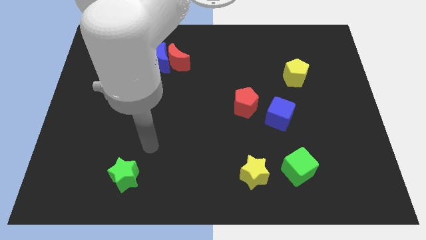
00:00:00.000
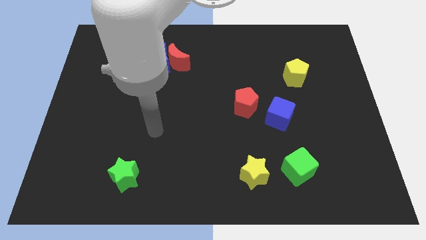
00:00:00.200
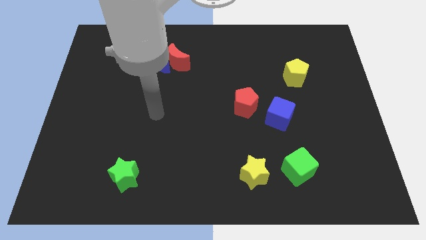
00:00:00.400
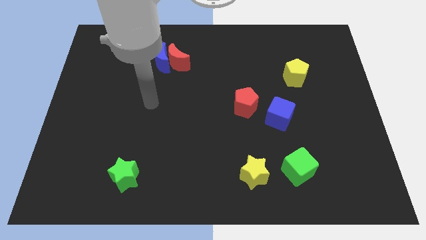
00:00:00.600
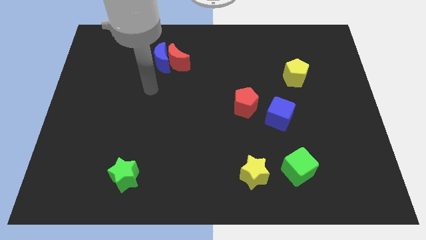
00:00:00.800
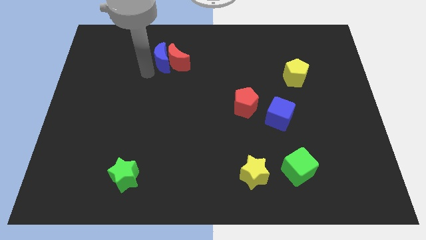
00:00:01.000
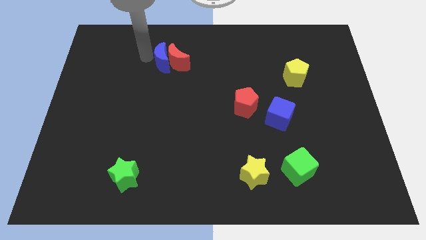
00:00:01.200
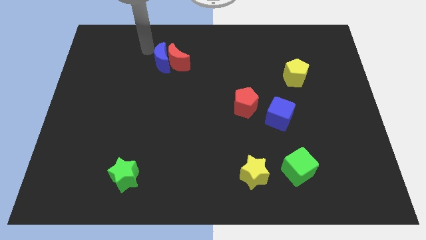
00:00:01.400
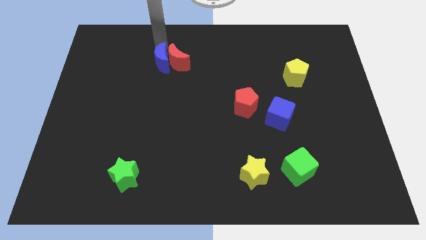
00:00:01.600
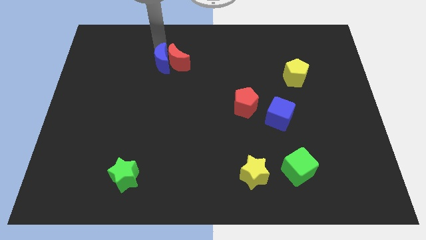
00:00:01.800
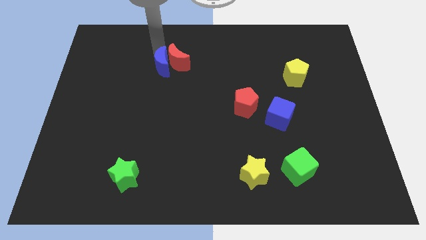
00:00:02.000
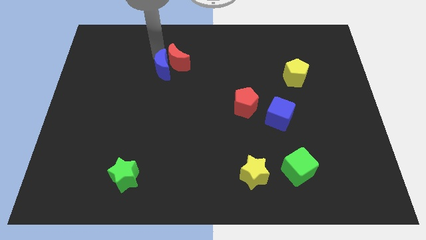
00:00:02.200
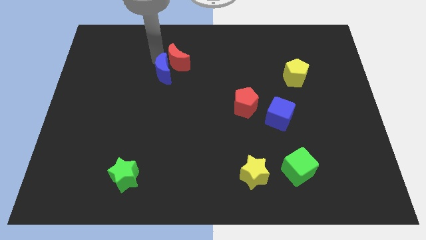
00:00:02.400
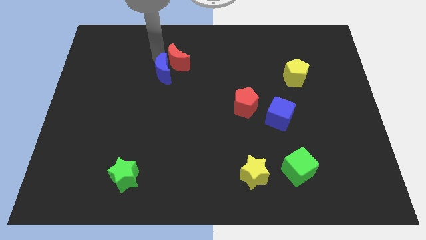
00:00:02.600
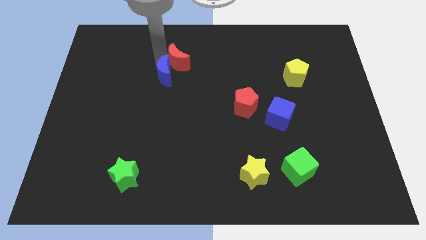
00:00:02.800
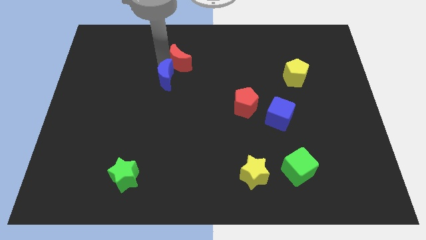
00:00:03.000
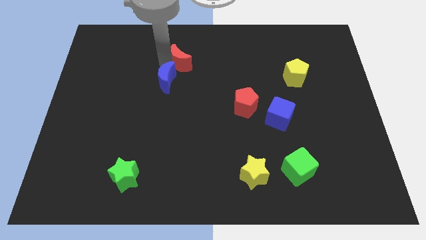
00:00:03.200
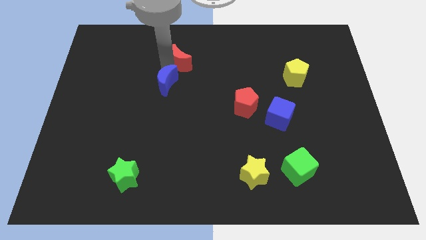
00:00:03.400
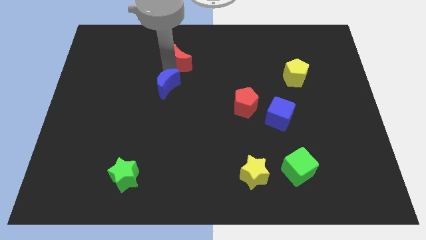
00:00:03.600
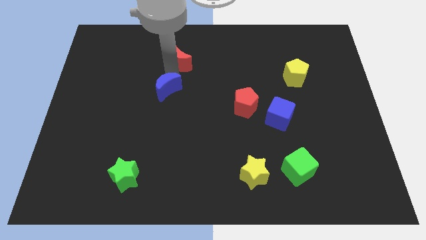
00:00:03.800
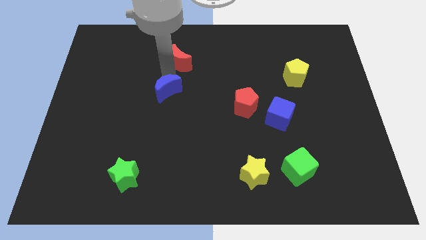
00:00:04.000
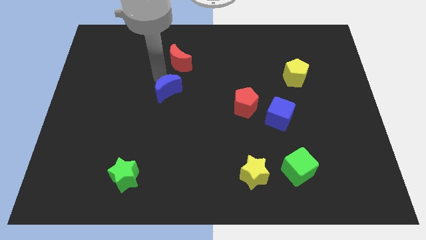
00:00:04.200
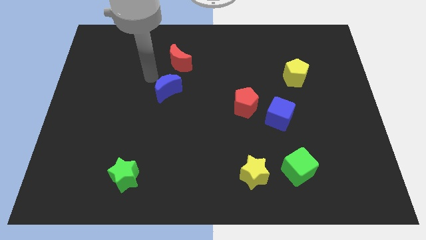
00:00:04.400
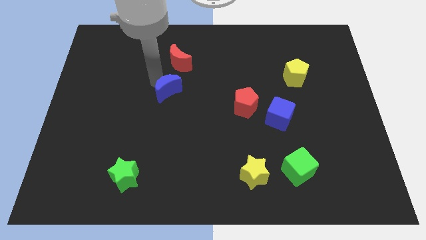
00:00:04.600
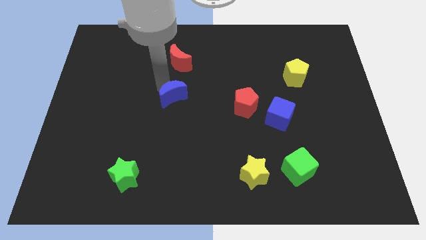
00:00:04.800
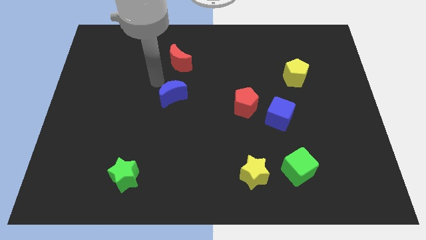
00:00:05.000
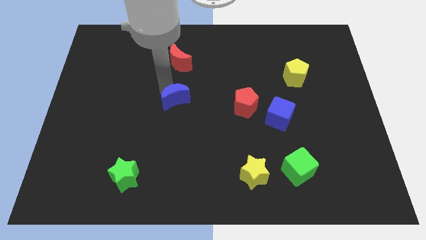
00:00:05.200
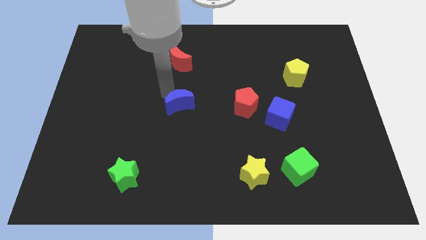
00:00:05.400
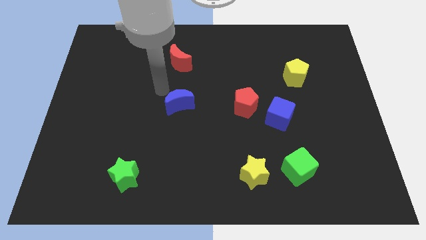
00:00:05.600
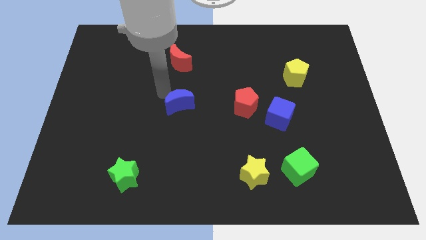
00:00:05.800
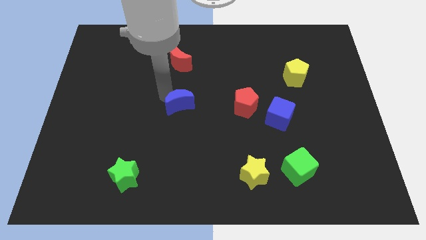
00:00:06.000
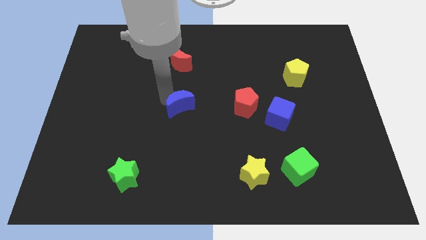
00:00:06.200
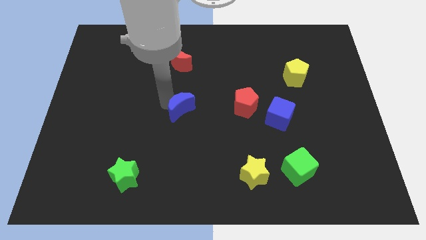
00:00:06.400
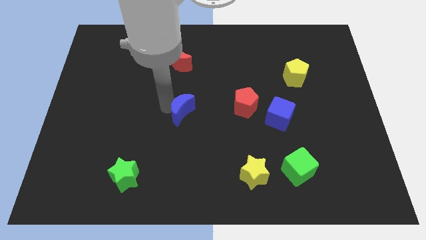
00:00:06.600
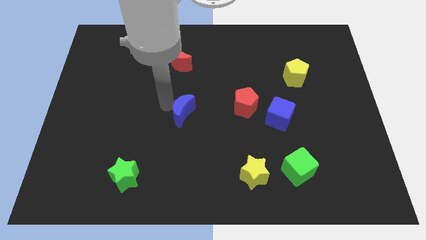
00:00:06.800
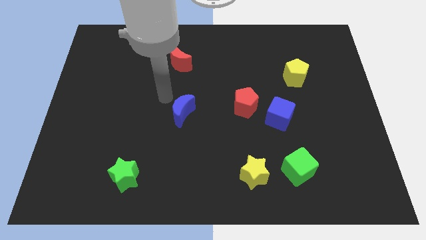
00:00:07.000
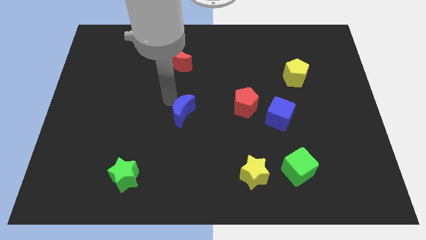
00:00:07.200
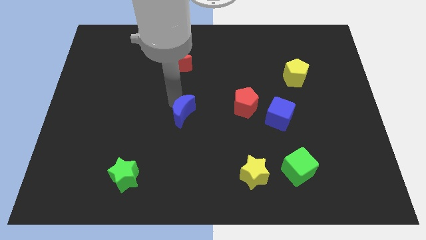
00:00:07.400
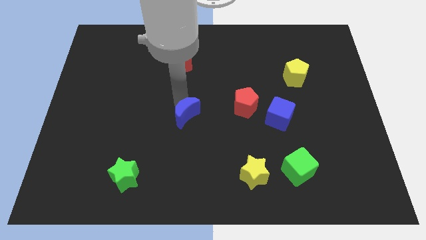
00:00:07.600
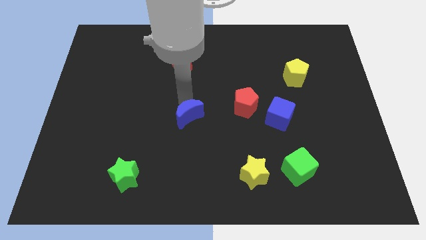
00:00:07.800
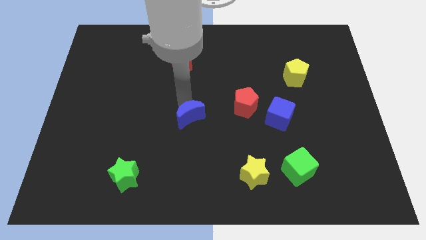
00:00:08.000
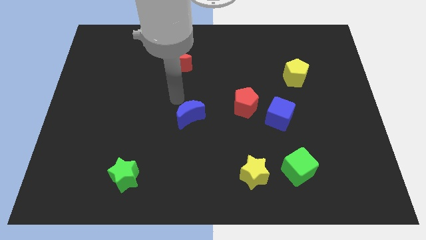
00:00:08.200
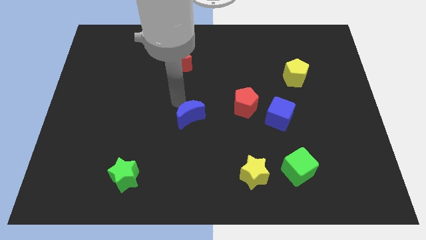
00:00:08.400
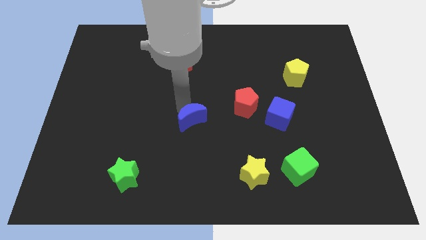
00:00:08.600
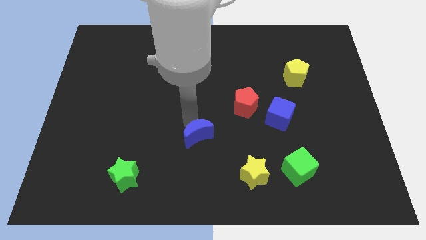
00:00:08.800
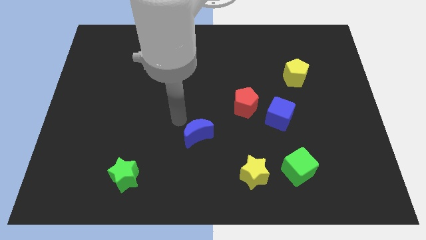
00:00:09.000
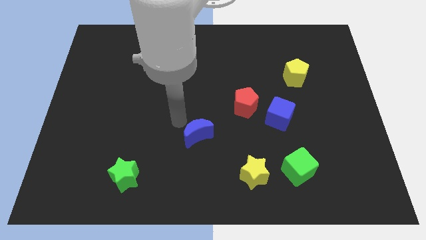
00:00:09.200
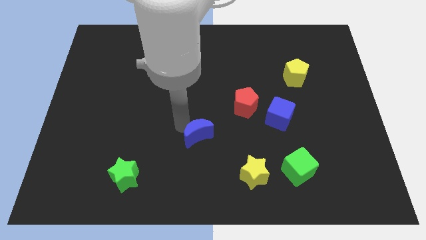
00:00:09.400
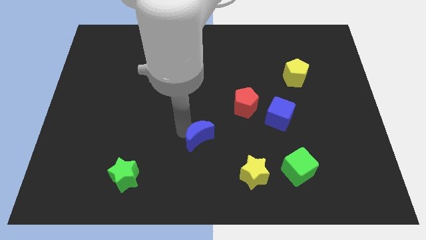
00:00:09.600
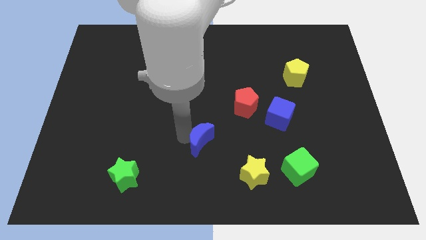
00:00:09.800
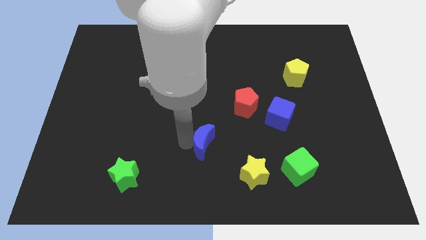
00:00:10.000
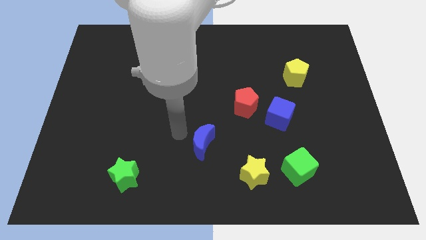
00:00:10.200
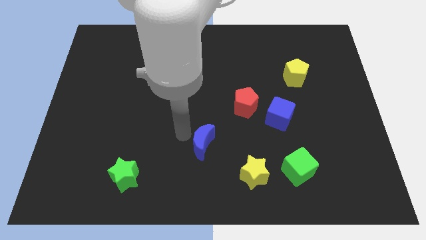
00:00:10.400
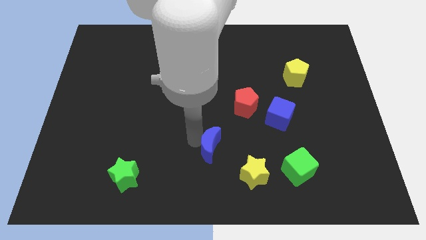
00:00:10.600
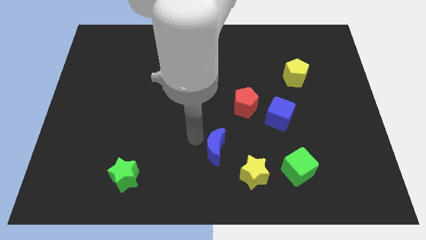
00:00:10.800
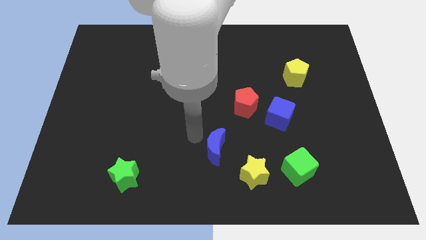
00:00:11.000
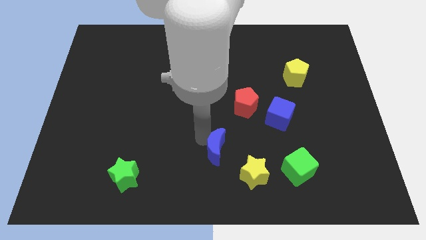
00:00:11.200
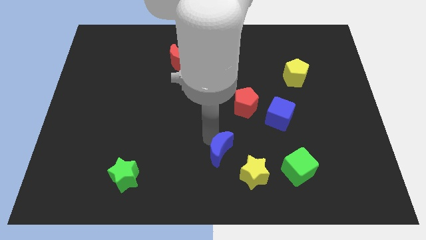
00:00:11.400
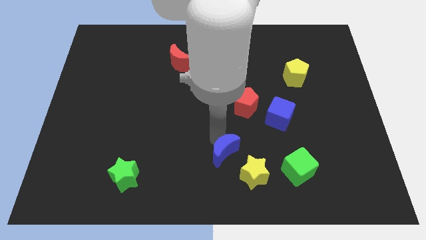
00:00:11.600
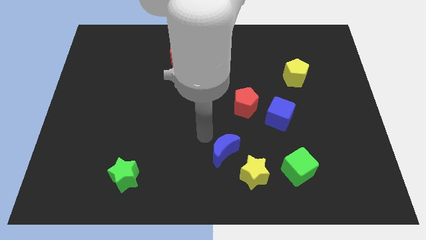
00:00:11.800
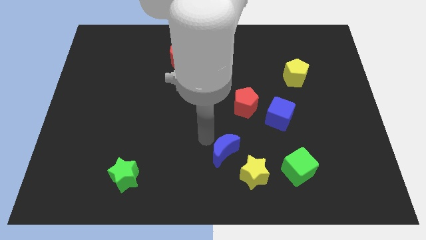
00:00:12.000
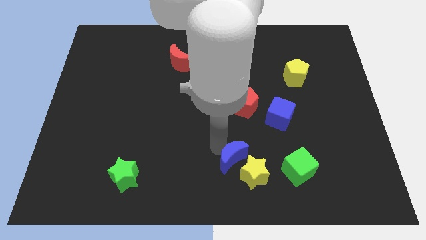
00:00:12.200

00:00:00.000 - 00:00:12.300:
push the blue moon to the left of the green cube

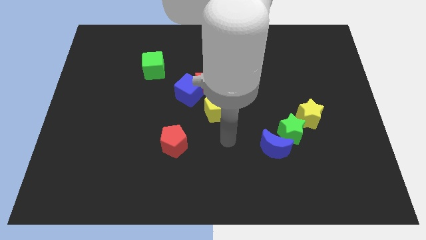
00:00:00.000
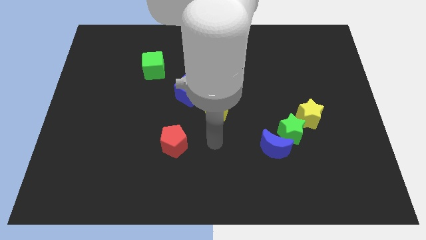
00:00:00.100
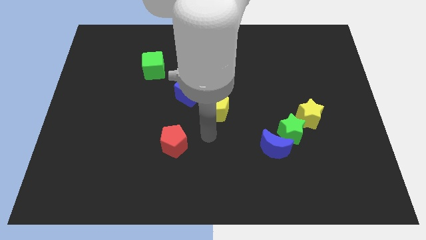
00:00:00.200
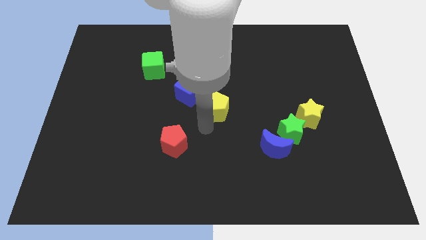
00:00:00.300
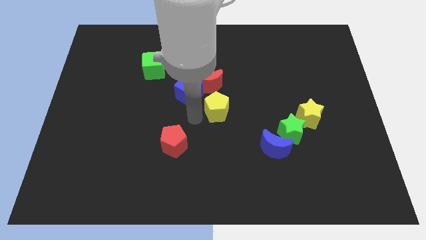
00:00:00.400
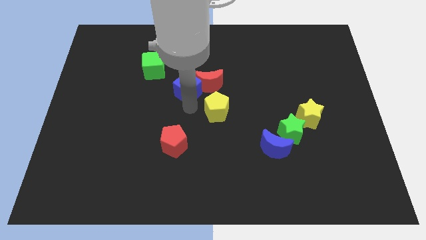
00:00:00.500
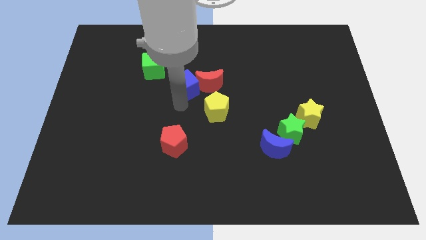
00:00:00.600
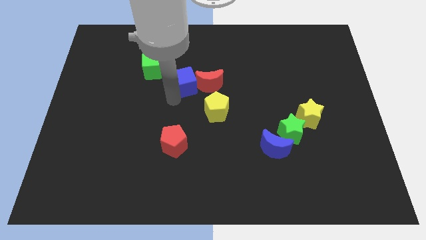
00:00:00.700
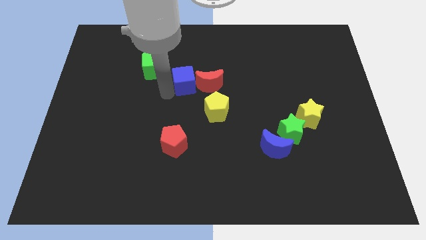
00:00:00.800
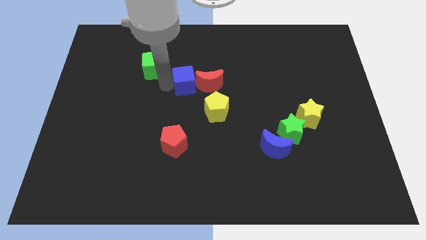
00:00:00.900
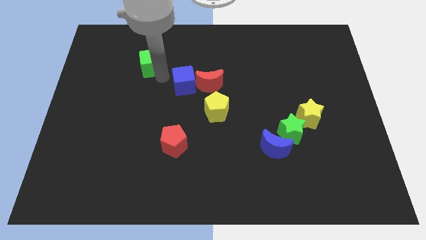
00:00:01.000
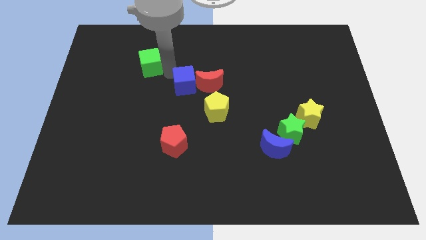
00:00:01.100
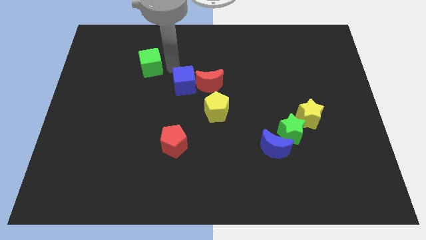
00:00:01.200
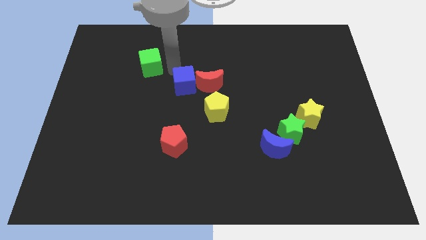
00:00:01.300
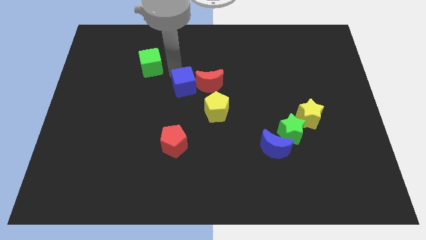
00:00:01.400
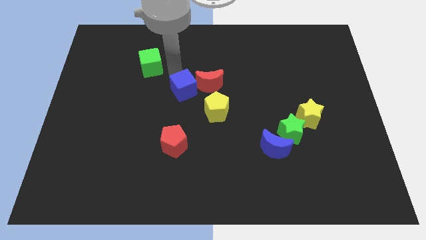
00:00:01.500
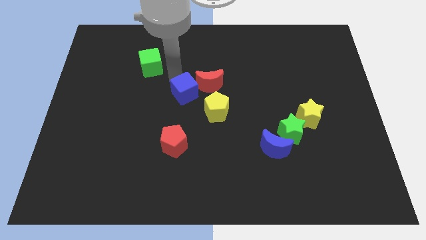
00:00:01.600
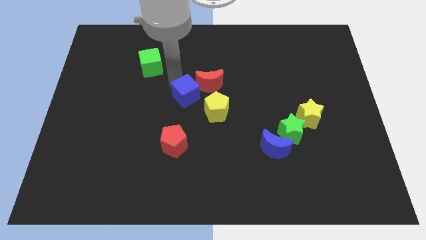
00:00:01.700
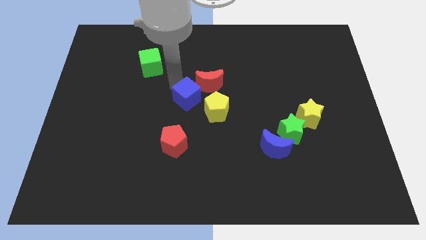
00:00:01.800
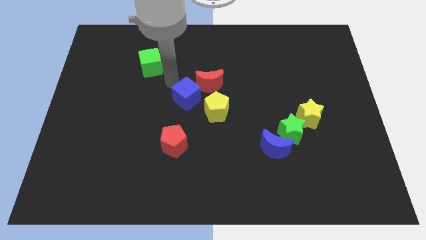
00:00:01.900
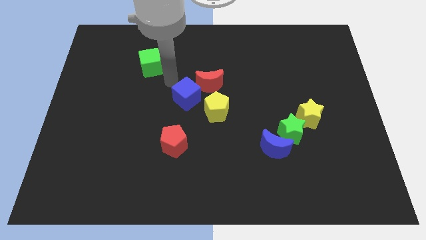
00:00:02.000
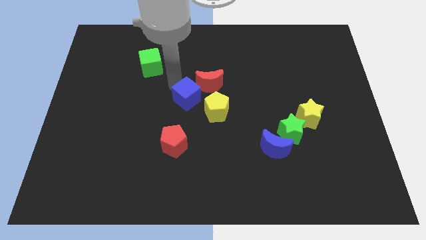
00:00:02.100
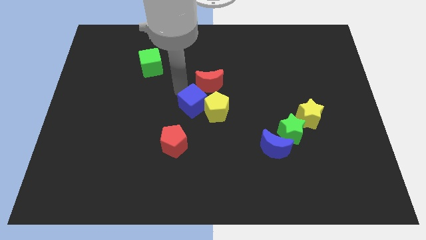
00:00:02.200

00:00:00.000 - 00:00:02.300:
push the blue cube below the red moon
